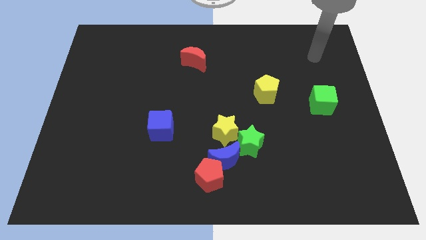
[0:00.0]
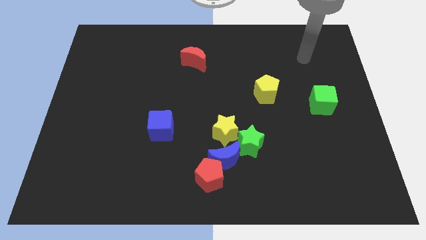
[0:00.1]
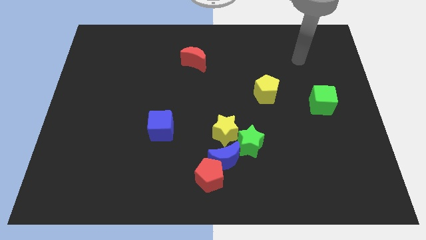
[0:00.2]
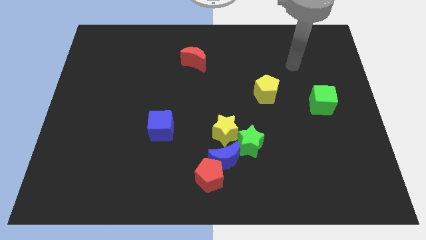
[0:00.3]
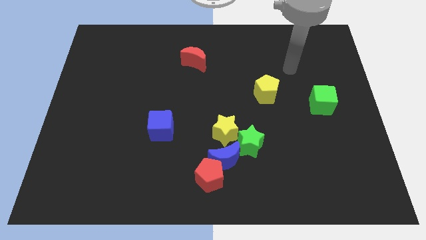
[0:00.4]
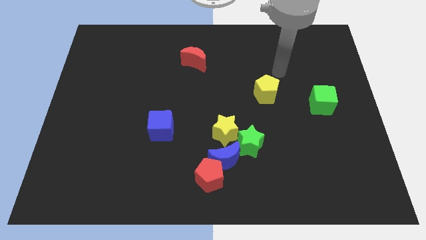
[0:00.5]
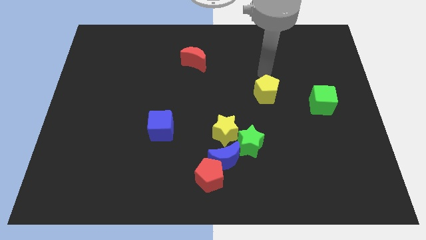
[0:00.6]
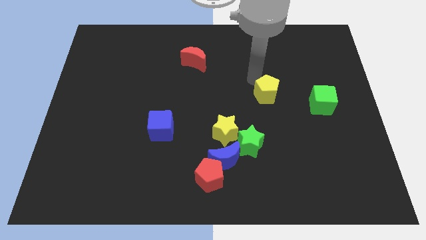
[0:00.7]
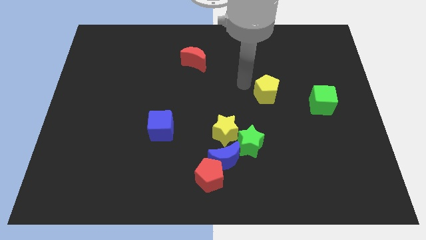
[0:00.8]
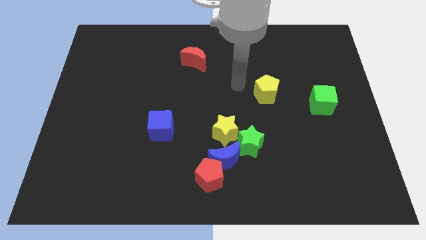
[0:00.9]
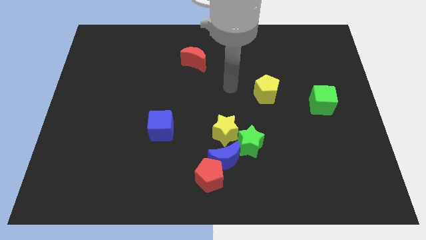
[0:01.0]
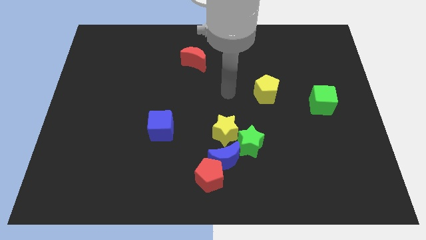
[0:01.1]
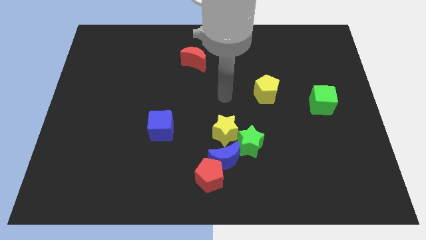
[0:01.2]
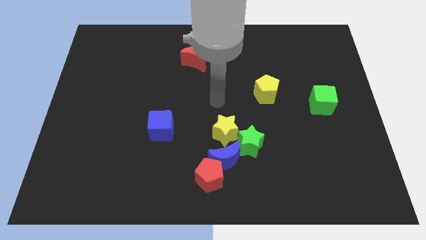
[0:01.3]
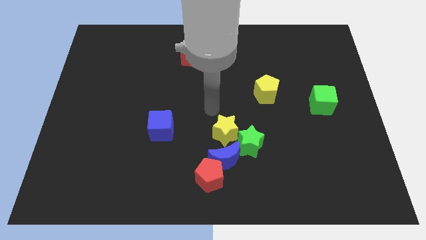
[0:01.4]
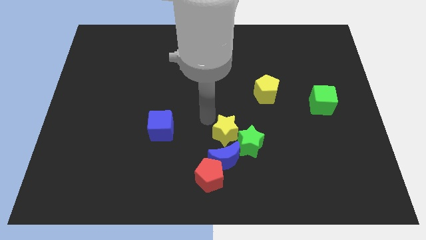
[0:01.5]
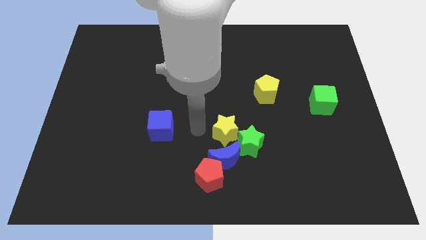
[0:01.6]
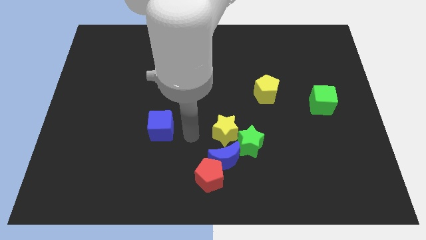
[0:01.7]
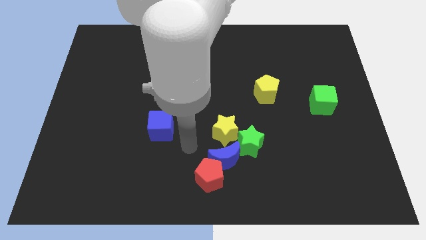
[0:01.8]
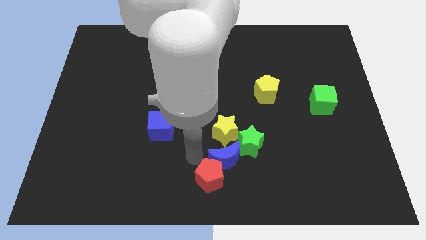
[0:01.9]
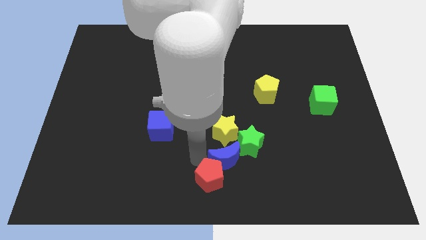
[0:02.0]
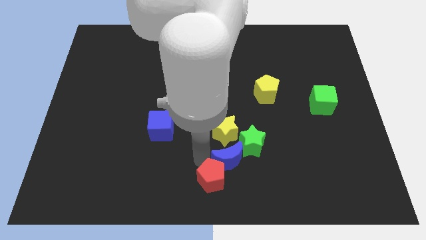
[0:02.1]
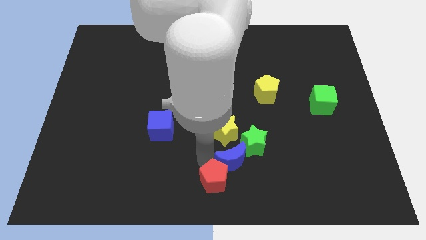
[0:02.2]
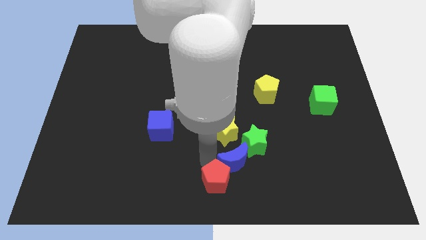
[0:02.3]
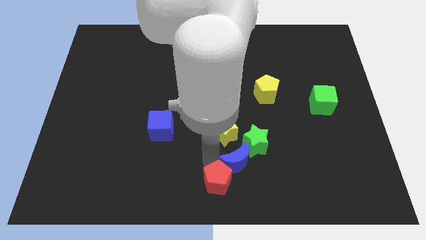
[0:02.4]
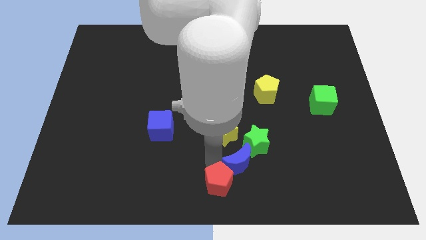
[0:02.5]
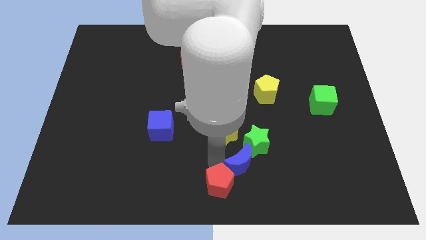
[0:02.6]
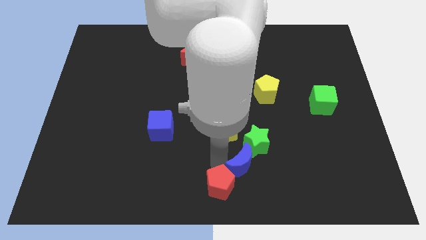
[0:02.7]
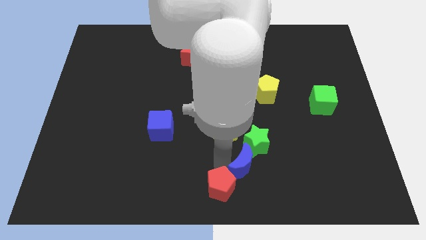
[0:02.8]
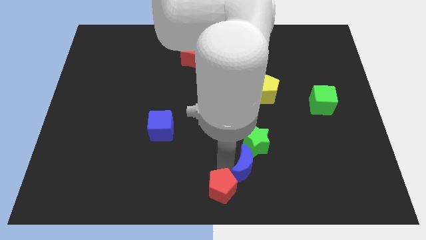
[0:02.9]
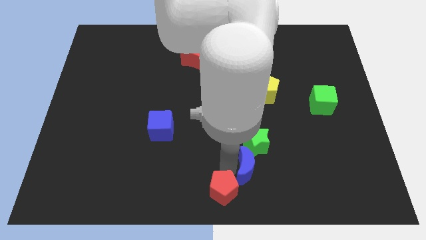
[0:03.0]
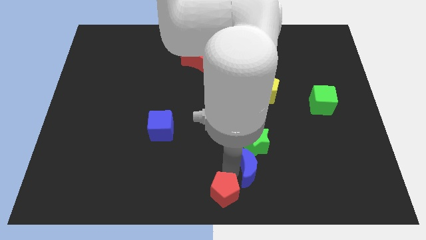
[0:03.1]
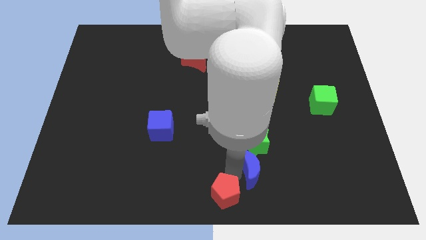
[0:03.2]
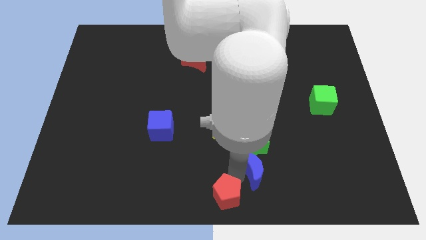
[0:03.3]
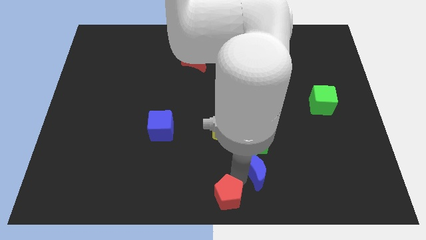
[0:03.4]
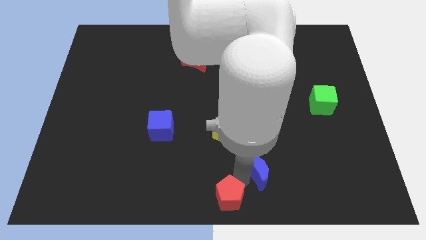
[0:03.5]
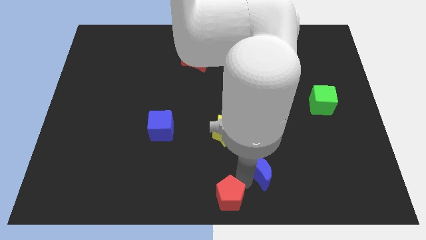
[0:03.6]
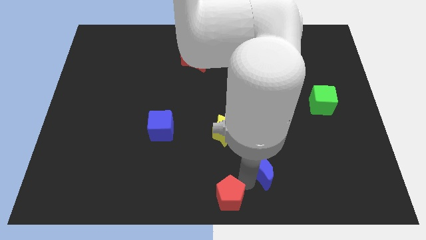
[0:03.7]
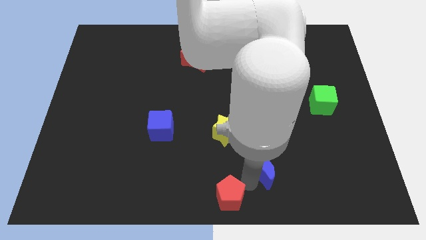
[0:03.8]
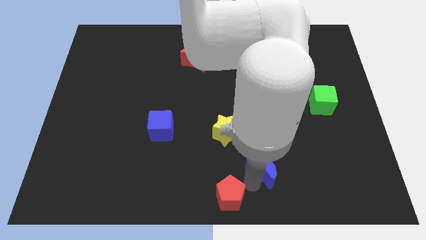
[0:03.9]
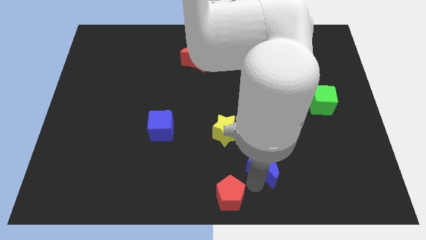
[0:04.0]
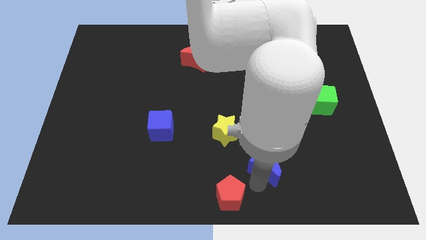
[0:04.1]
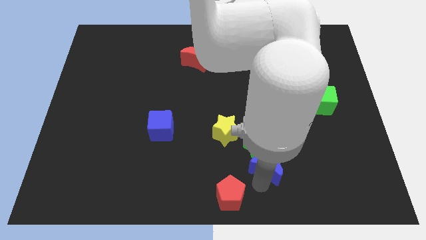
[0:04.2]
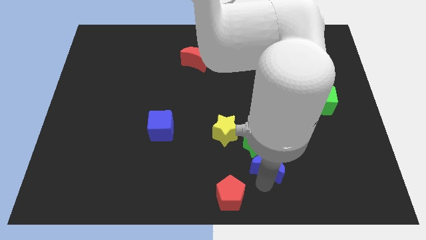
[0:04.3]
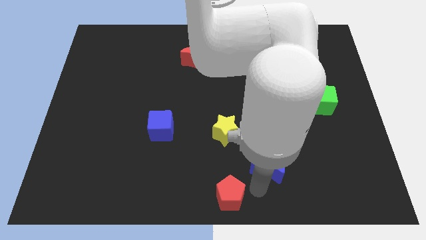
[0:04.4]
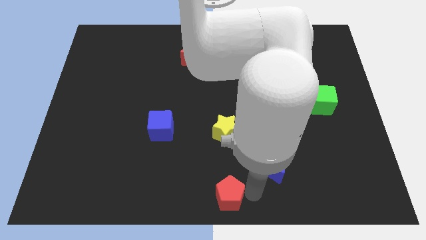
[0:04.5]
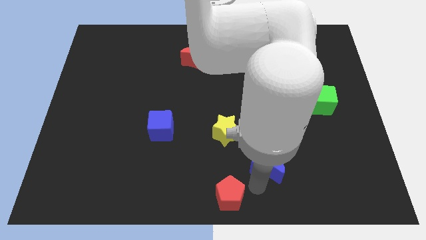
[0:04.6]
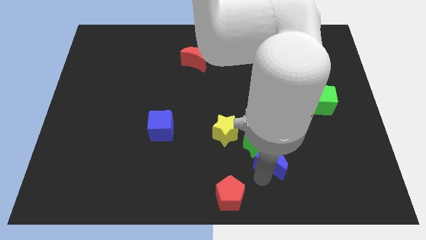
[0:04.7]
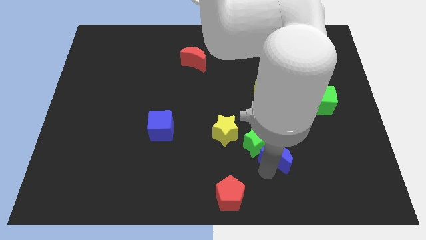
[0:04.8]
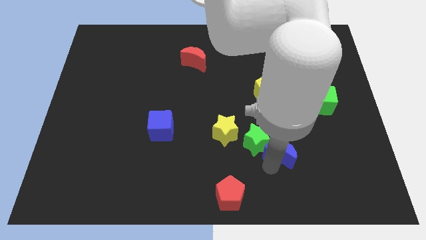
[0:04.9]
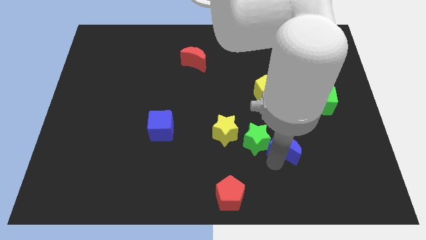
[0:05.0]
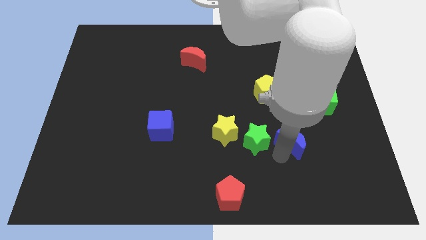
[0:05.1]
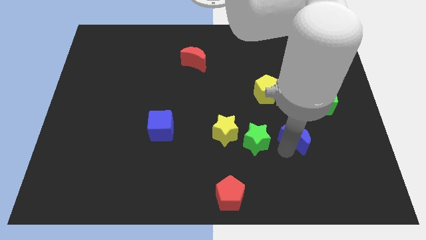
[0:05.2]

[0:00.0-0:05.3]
slide the blue moon to the bottom left of the green cube

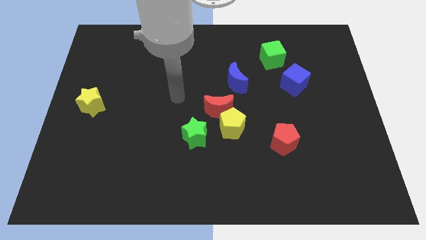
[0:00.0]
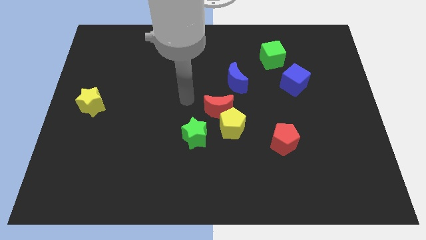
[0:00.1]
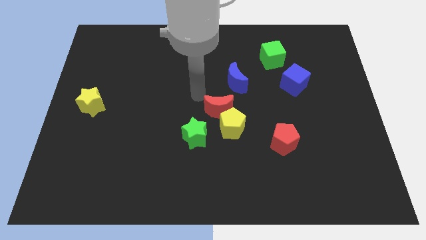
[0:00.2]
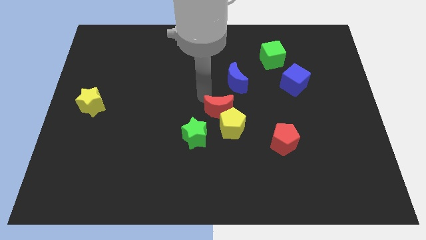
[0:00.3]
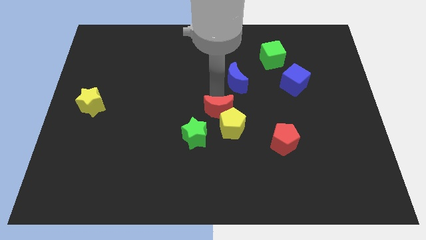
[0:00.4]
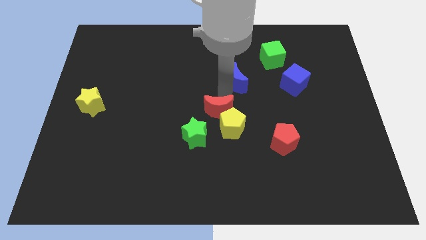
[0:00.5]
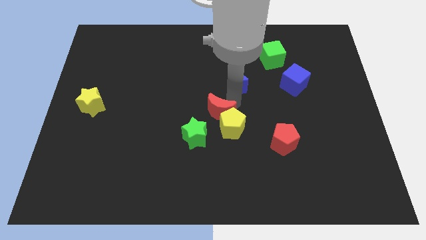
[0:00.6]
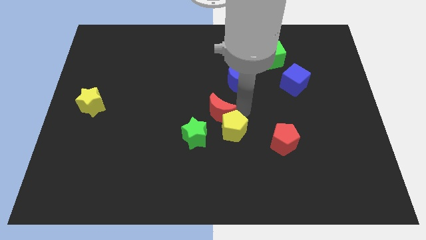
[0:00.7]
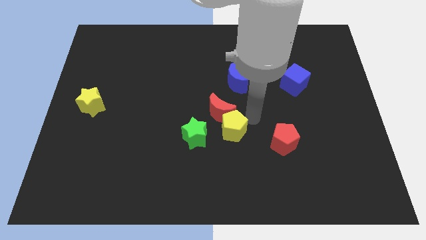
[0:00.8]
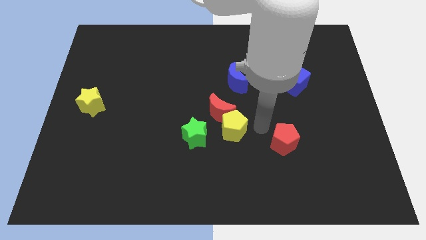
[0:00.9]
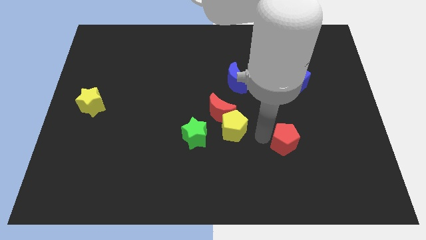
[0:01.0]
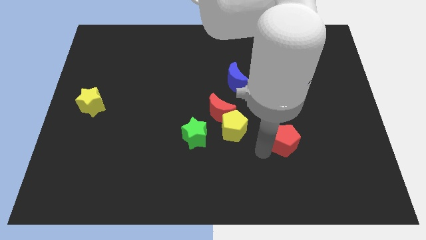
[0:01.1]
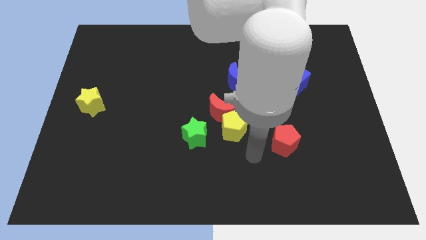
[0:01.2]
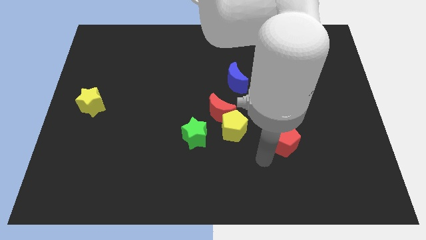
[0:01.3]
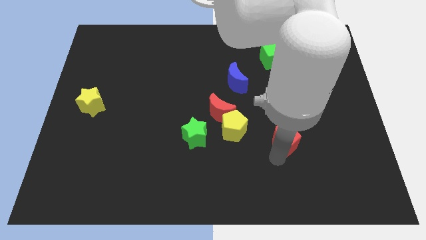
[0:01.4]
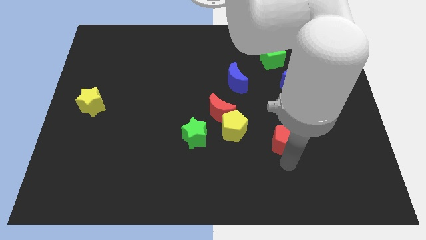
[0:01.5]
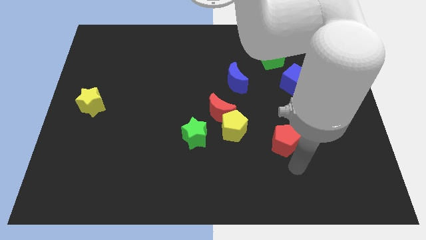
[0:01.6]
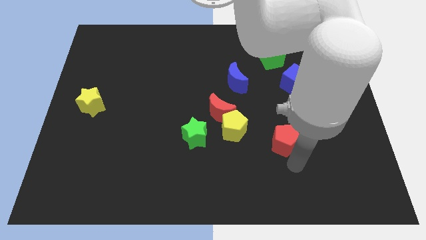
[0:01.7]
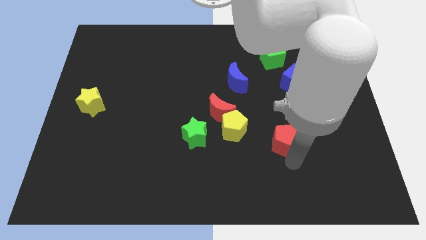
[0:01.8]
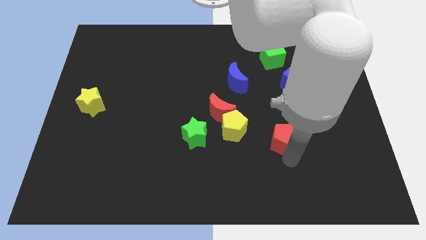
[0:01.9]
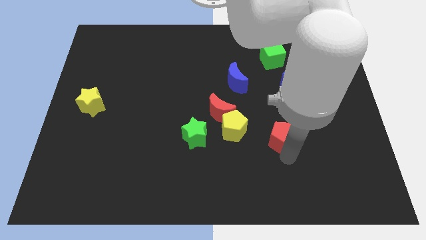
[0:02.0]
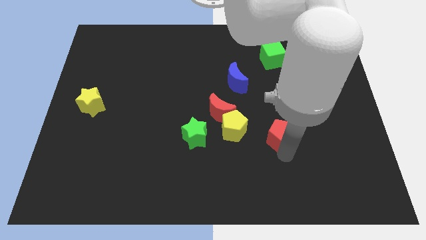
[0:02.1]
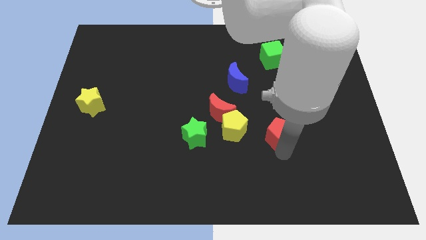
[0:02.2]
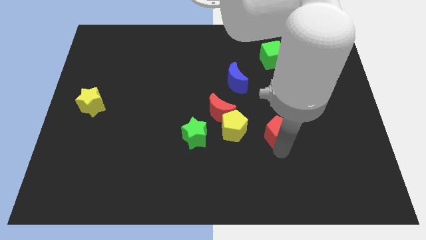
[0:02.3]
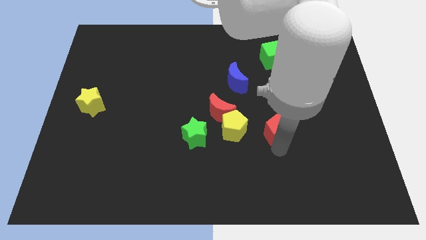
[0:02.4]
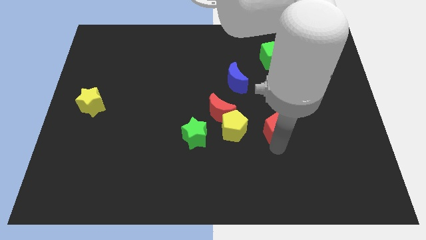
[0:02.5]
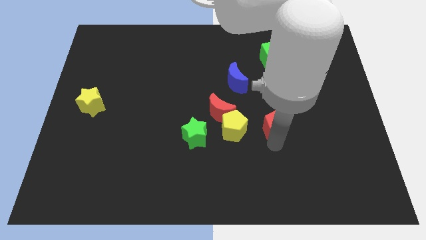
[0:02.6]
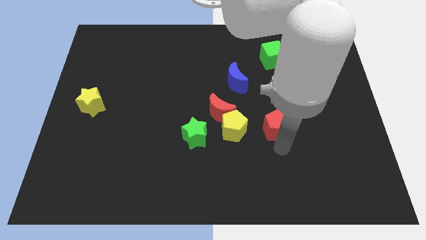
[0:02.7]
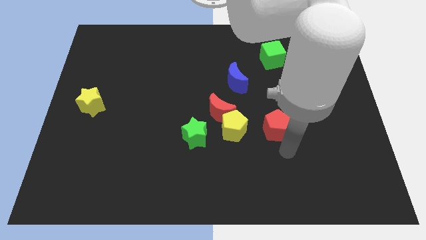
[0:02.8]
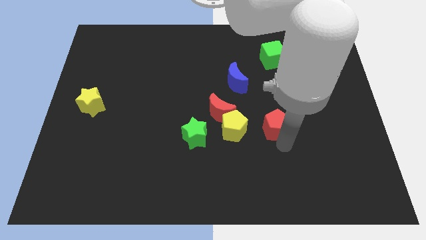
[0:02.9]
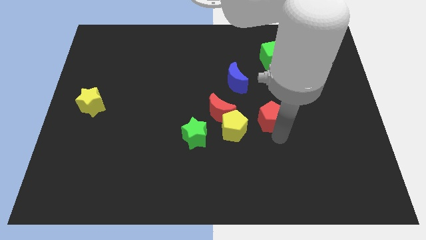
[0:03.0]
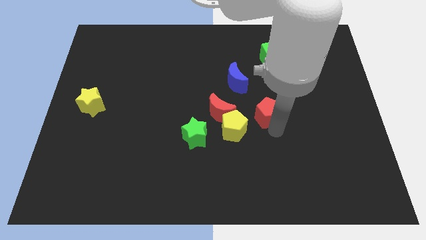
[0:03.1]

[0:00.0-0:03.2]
slide the red pentagon to the bottom right of the blue moon
